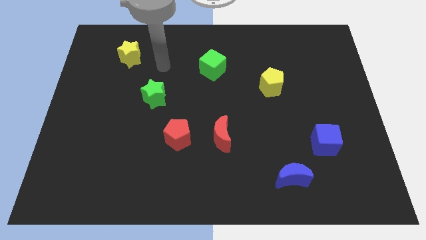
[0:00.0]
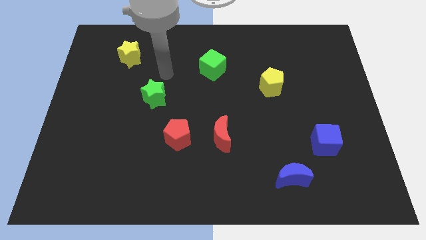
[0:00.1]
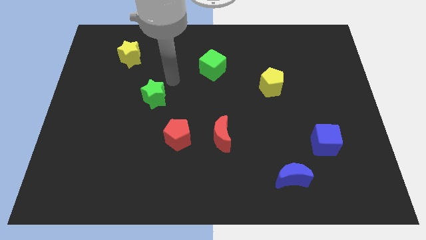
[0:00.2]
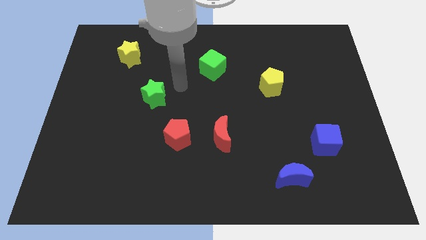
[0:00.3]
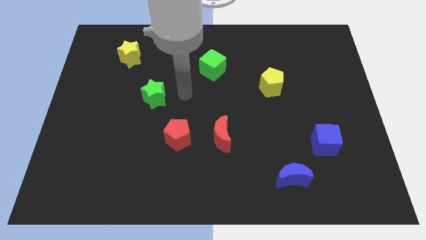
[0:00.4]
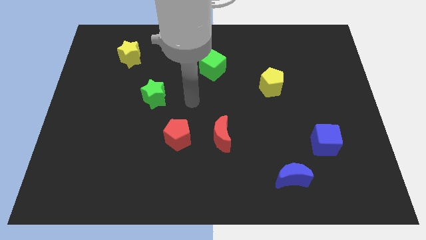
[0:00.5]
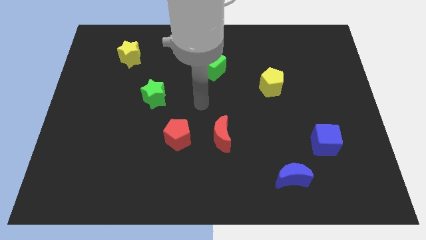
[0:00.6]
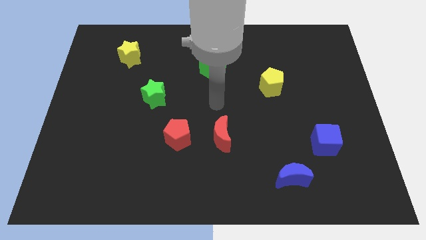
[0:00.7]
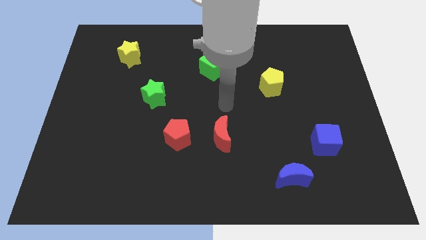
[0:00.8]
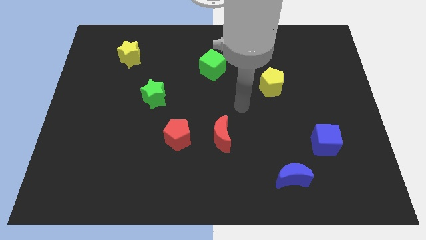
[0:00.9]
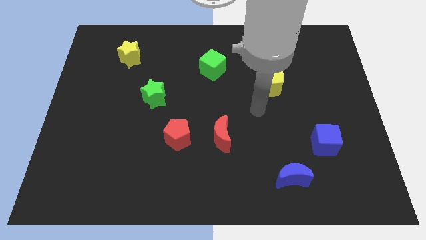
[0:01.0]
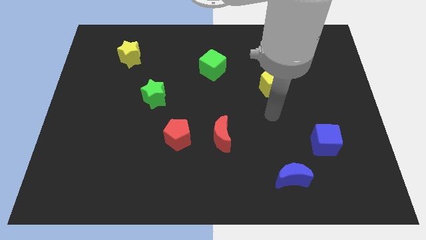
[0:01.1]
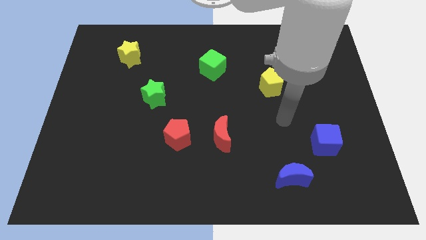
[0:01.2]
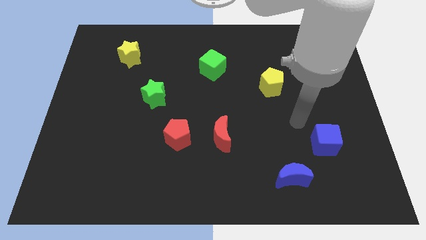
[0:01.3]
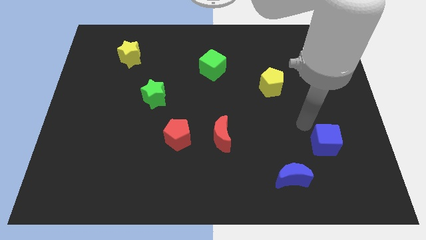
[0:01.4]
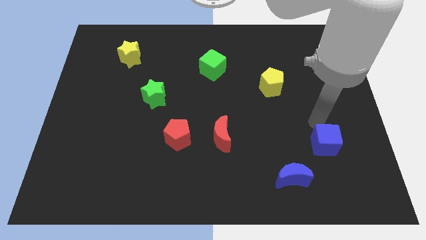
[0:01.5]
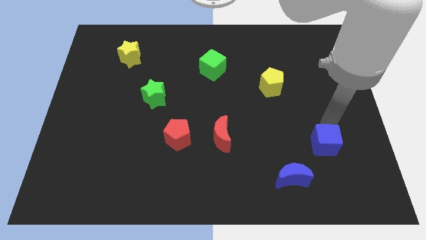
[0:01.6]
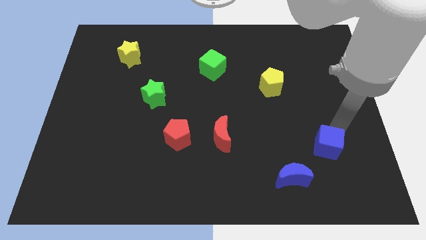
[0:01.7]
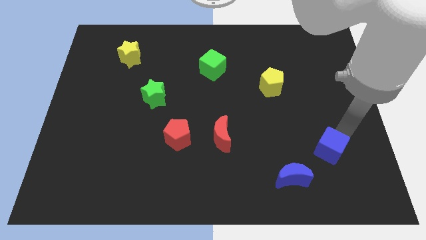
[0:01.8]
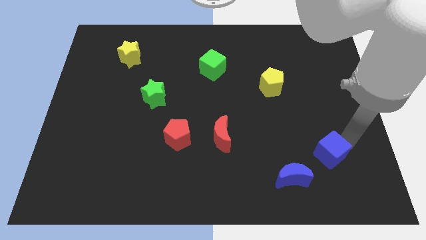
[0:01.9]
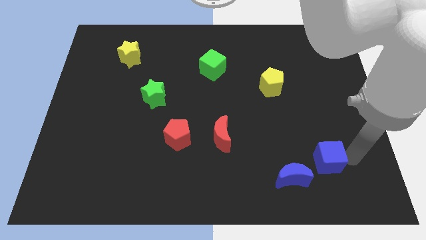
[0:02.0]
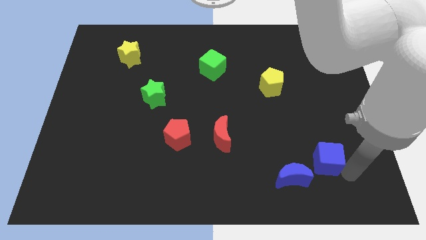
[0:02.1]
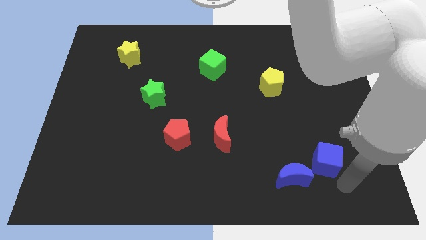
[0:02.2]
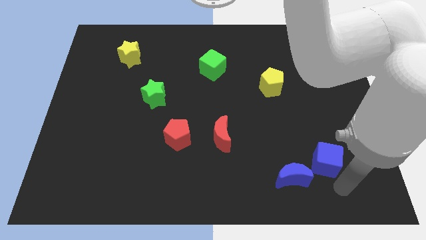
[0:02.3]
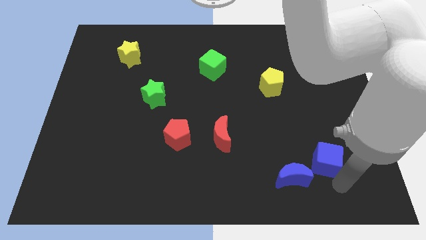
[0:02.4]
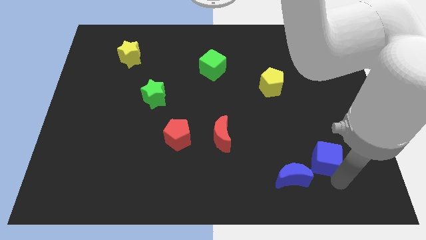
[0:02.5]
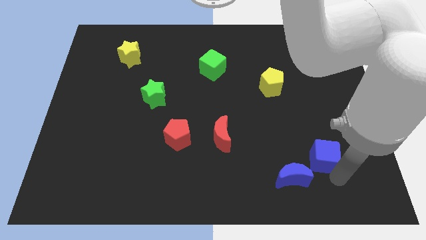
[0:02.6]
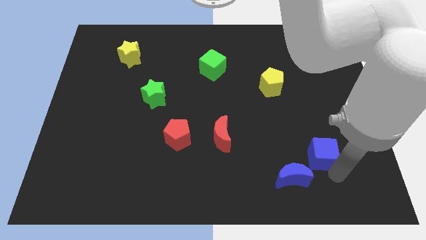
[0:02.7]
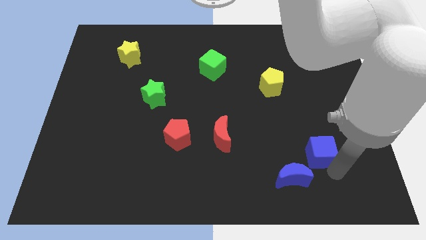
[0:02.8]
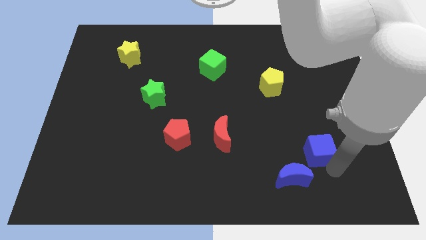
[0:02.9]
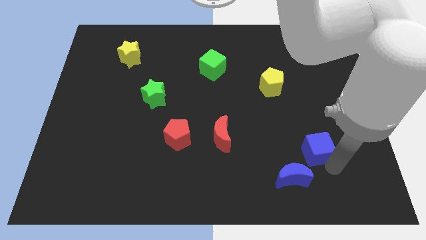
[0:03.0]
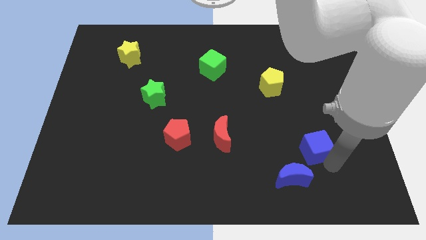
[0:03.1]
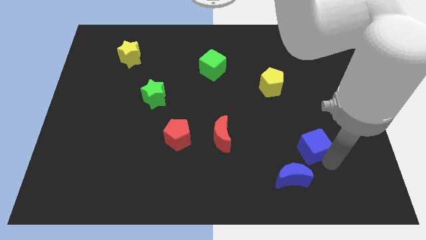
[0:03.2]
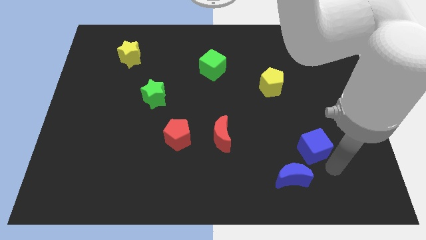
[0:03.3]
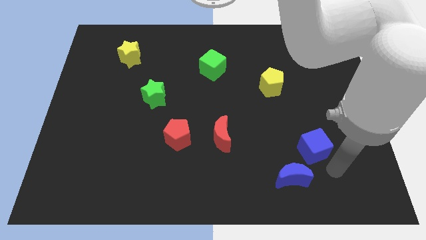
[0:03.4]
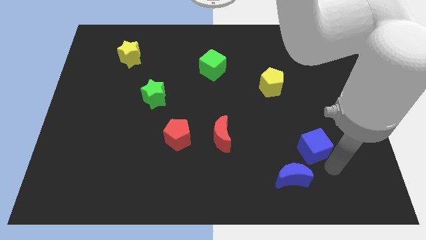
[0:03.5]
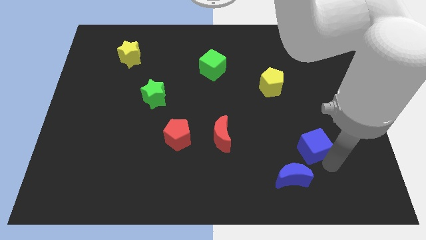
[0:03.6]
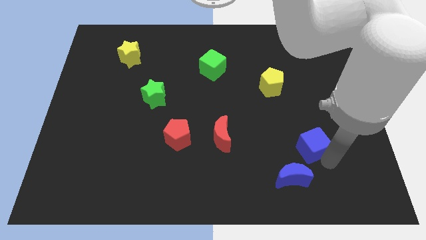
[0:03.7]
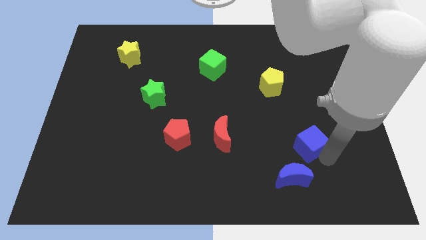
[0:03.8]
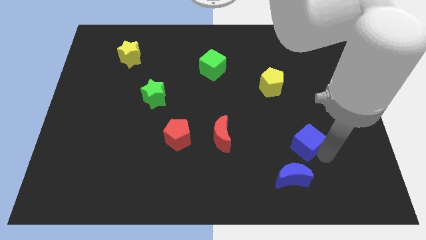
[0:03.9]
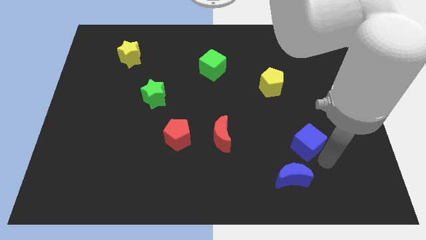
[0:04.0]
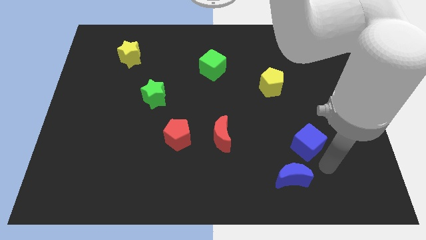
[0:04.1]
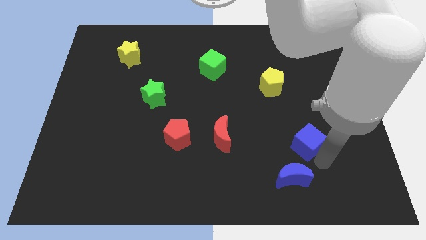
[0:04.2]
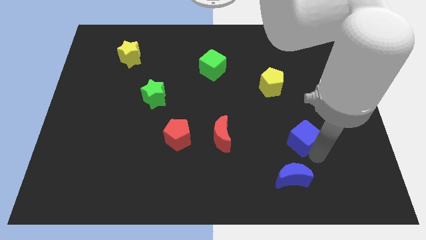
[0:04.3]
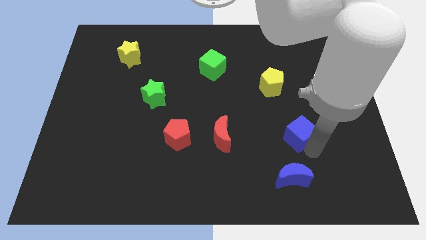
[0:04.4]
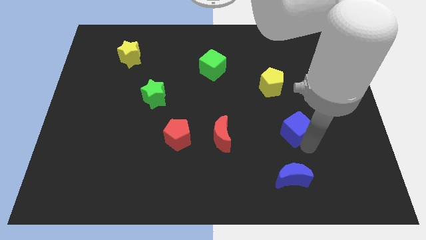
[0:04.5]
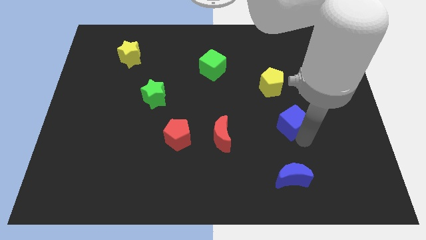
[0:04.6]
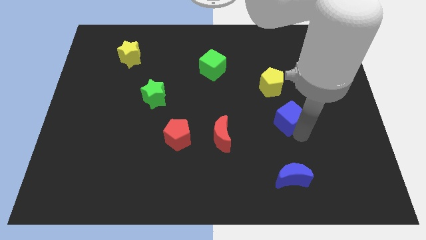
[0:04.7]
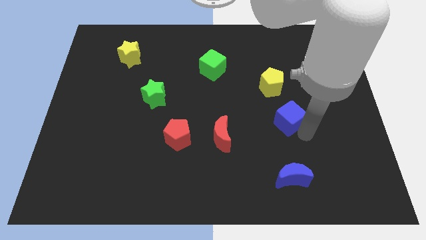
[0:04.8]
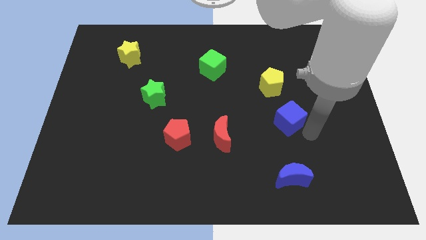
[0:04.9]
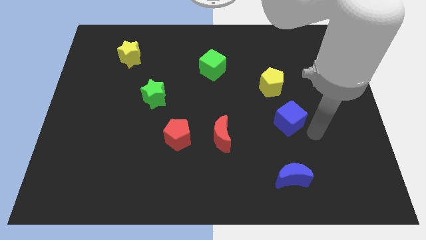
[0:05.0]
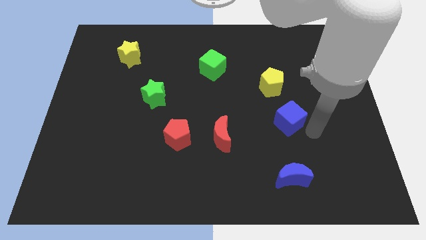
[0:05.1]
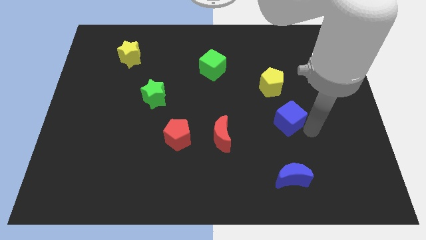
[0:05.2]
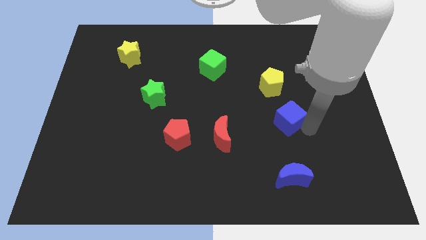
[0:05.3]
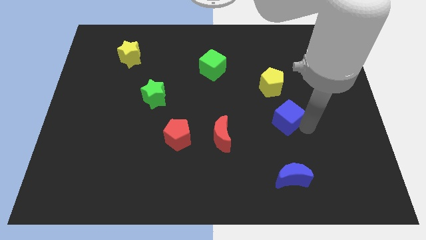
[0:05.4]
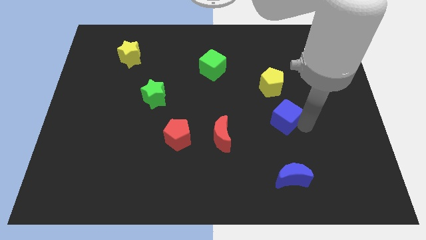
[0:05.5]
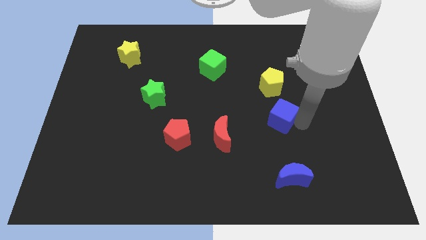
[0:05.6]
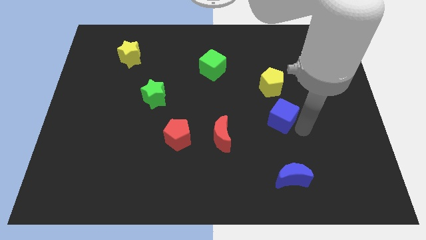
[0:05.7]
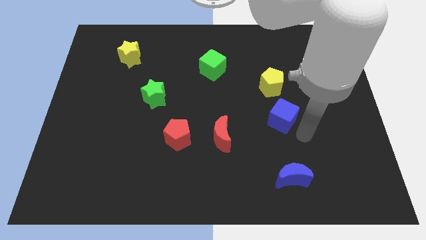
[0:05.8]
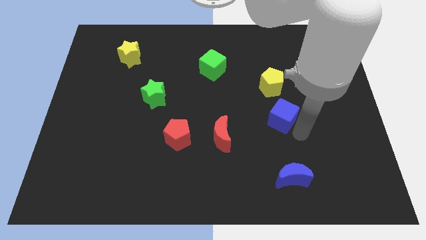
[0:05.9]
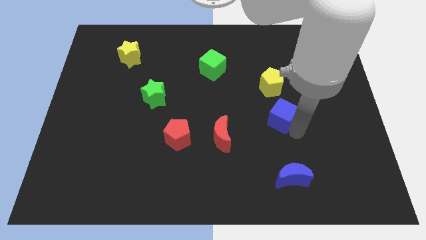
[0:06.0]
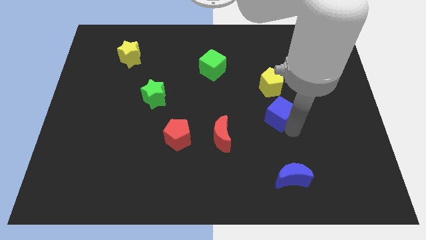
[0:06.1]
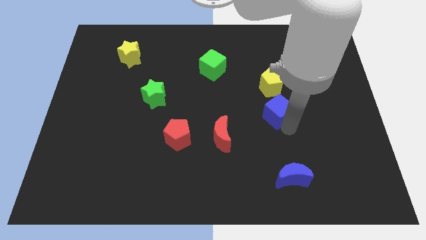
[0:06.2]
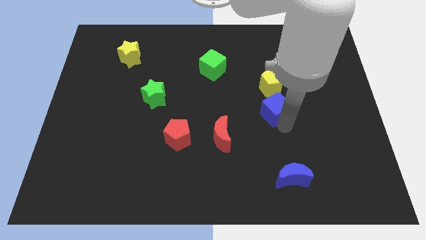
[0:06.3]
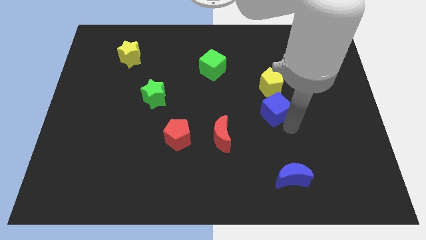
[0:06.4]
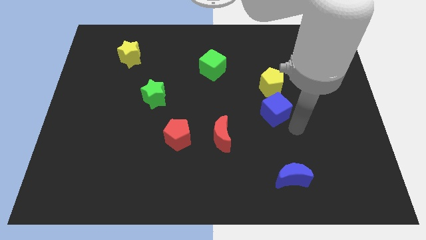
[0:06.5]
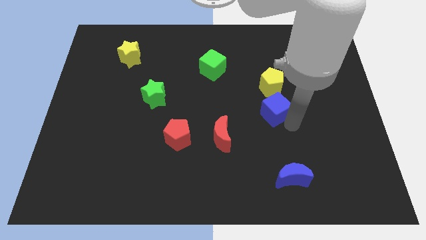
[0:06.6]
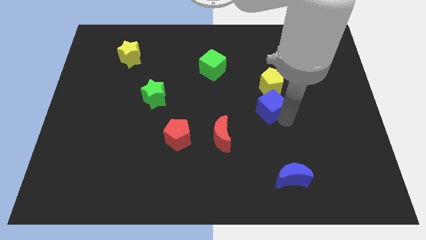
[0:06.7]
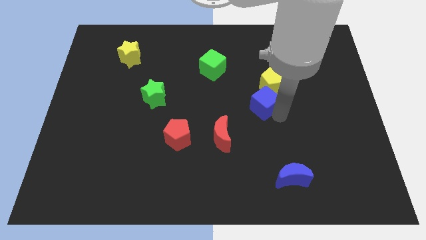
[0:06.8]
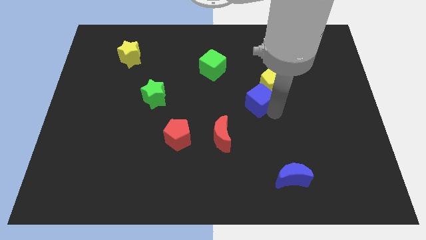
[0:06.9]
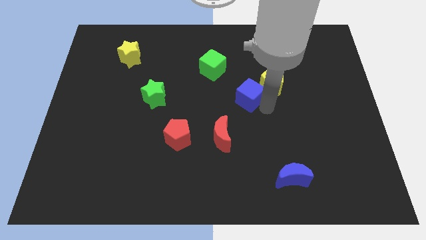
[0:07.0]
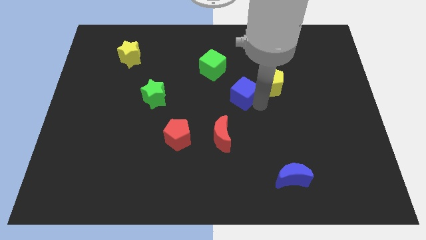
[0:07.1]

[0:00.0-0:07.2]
push the blue cube to the bottom right side of the green cube
